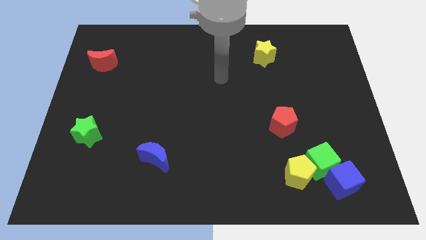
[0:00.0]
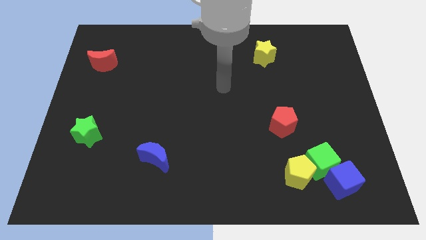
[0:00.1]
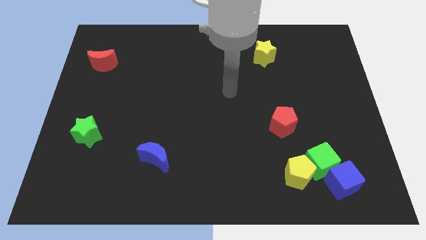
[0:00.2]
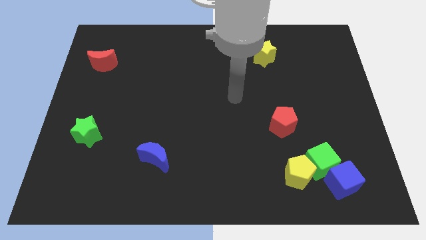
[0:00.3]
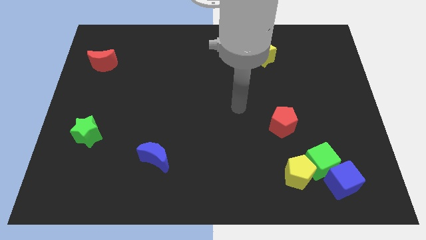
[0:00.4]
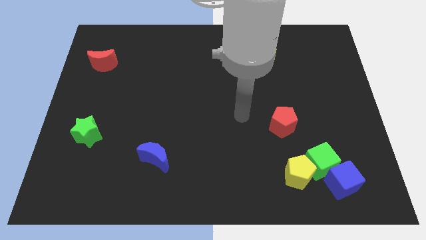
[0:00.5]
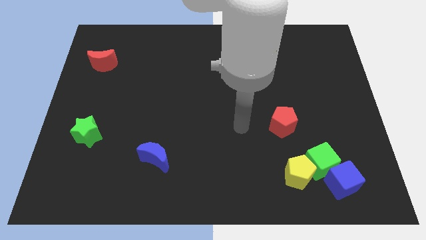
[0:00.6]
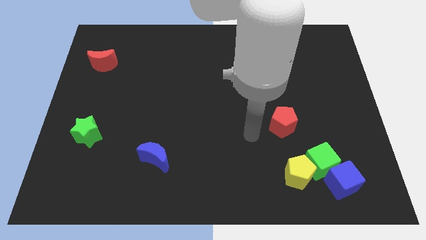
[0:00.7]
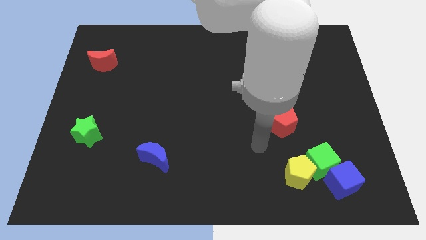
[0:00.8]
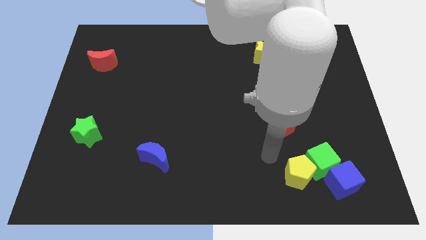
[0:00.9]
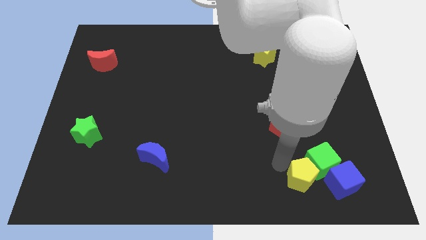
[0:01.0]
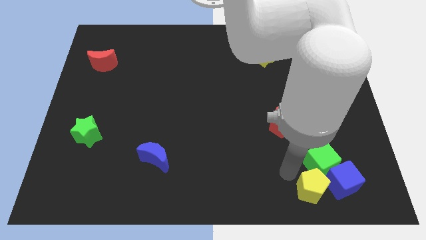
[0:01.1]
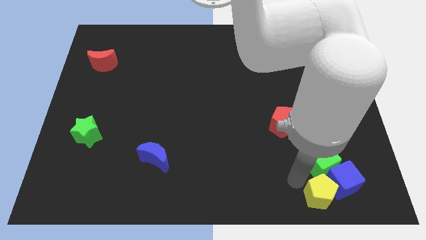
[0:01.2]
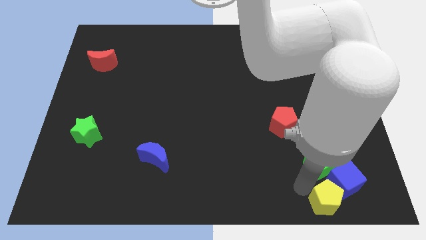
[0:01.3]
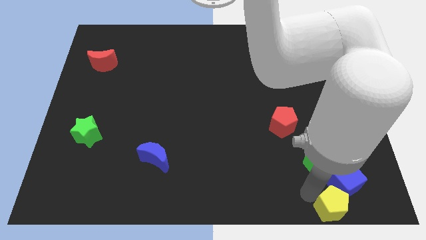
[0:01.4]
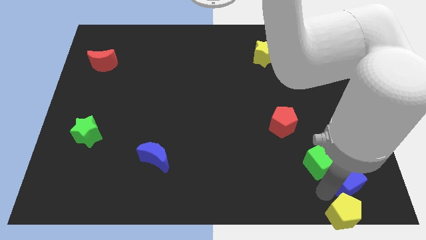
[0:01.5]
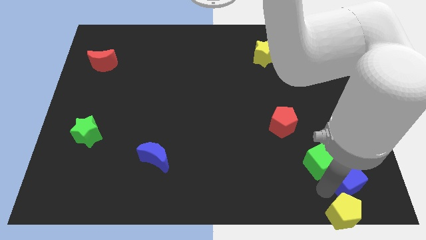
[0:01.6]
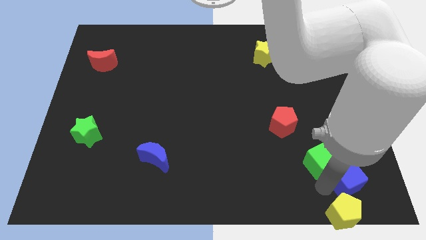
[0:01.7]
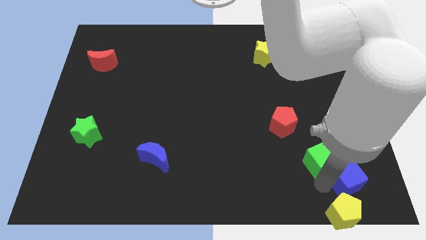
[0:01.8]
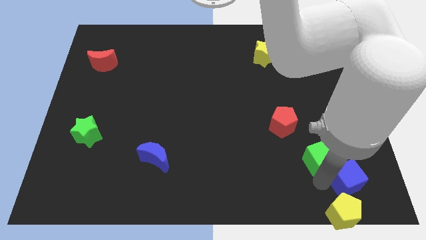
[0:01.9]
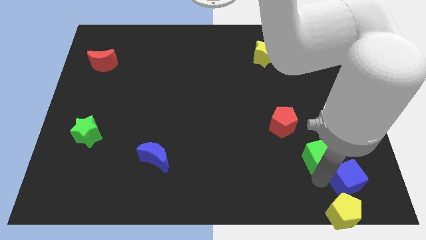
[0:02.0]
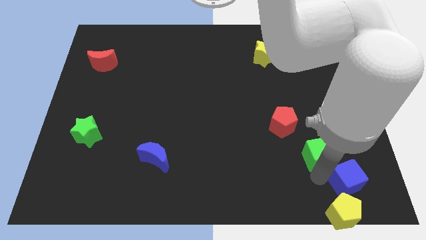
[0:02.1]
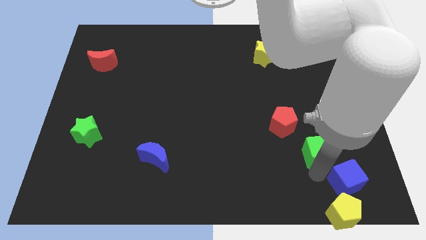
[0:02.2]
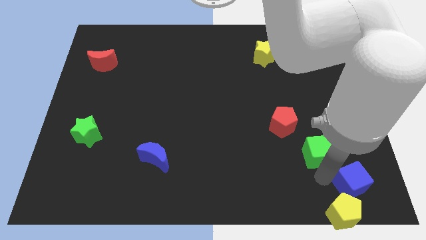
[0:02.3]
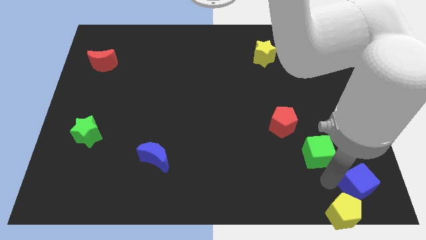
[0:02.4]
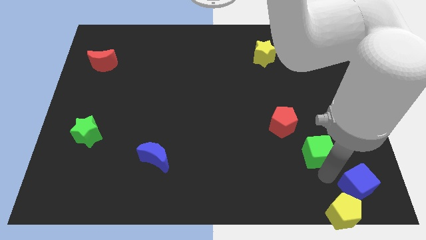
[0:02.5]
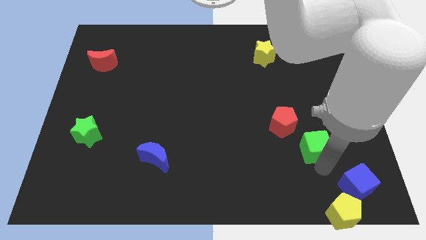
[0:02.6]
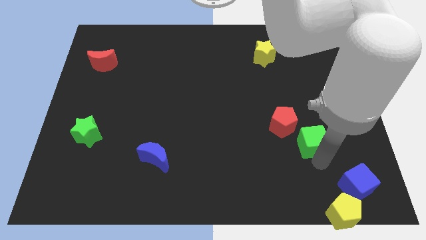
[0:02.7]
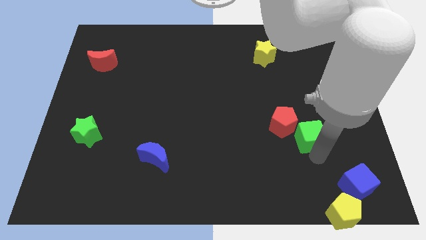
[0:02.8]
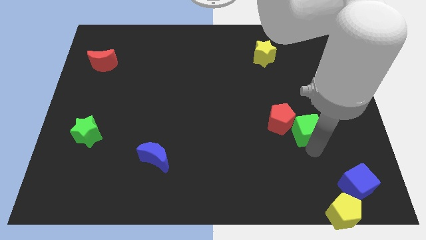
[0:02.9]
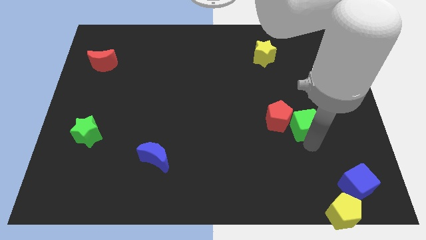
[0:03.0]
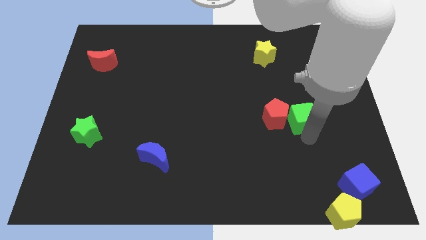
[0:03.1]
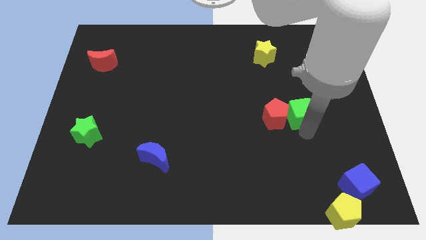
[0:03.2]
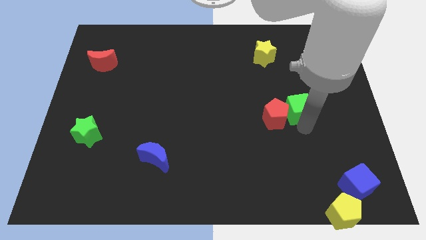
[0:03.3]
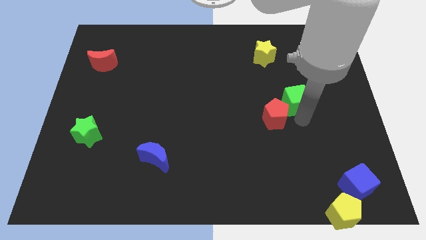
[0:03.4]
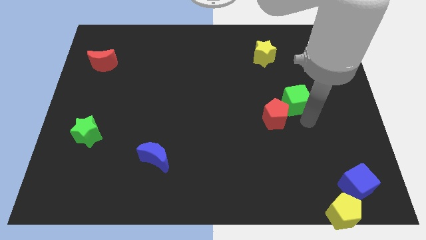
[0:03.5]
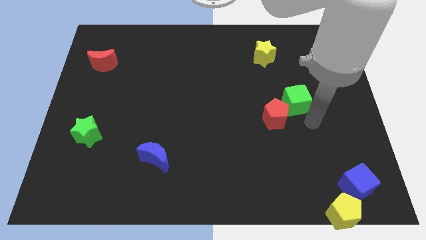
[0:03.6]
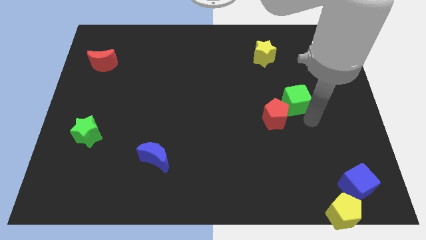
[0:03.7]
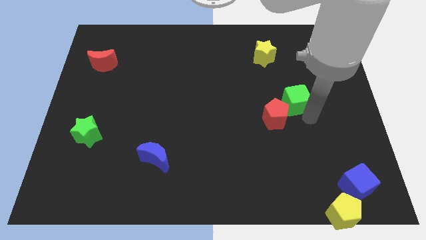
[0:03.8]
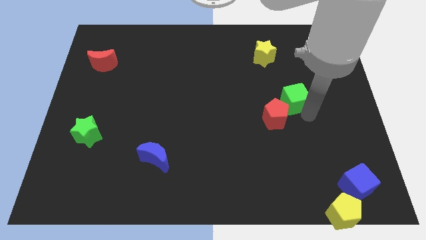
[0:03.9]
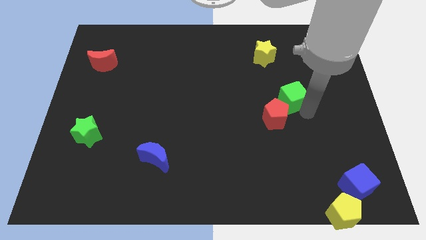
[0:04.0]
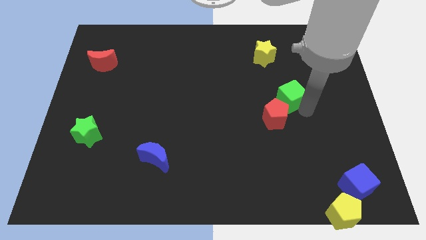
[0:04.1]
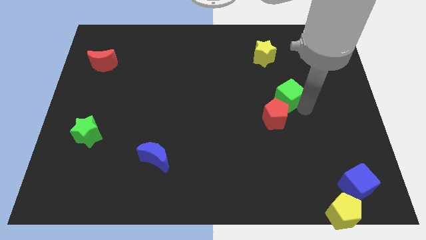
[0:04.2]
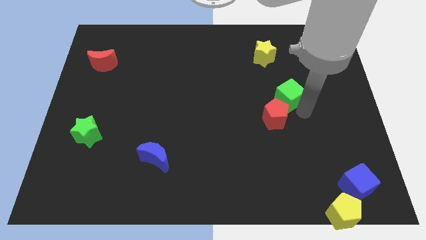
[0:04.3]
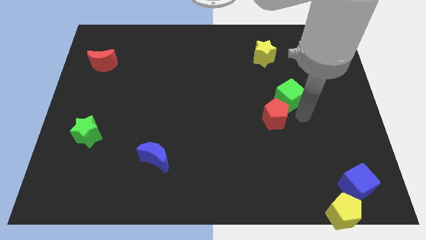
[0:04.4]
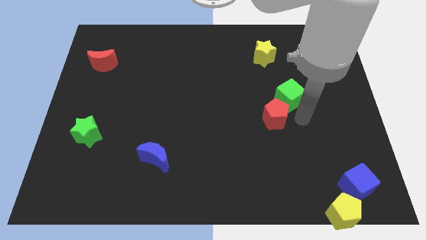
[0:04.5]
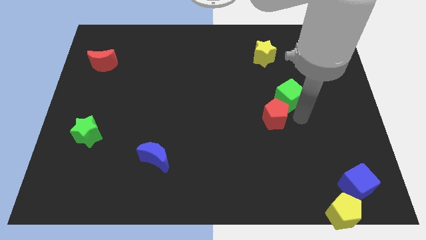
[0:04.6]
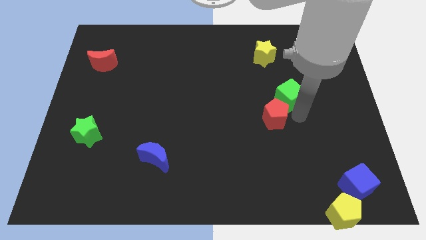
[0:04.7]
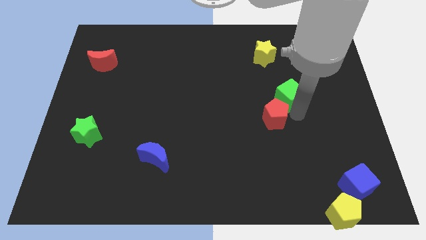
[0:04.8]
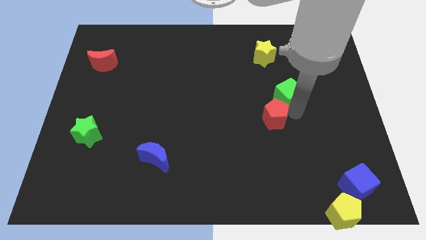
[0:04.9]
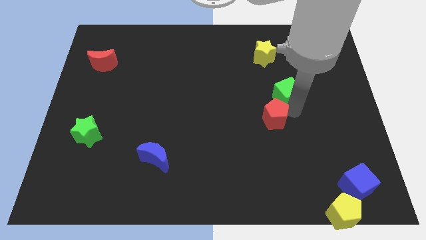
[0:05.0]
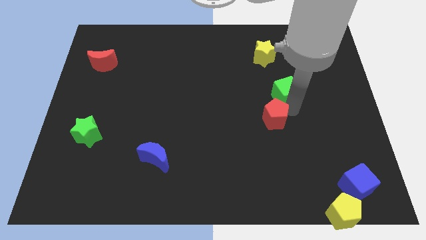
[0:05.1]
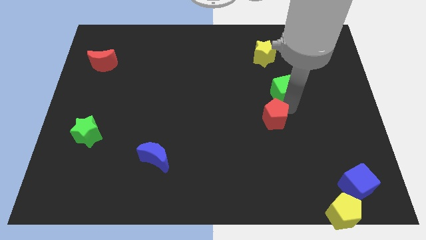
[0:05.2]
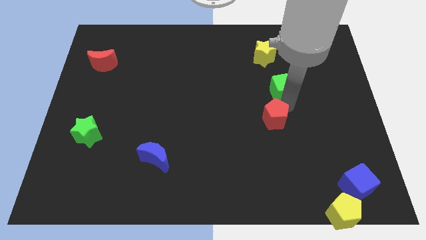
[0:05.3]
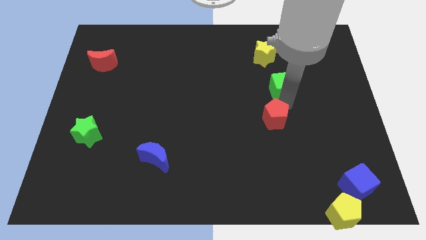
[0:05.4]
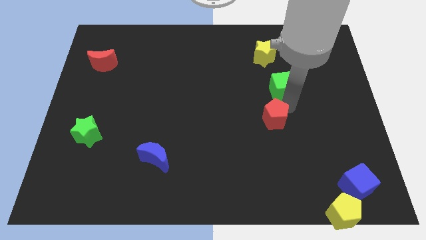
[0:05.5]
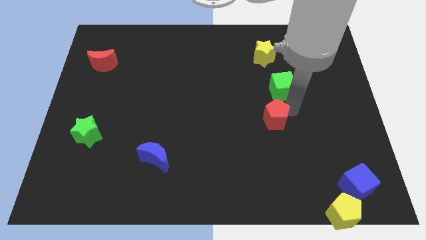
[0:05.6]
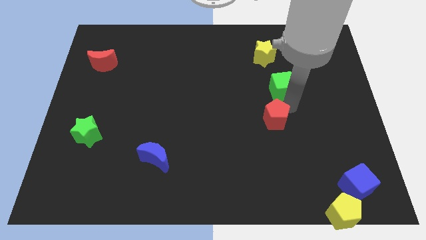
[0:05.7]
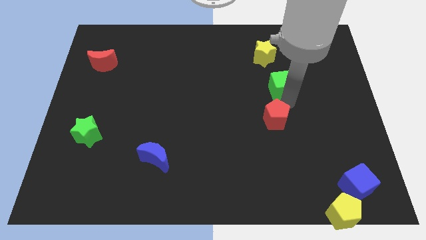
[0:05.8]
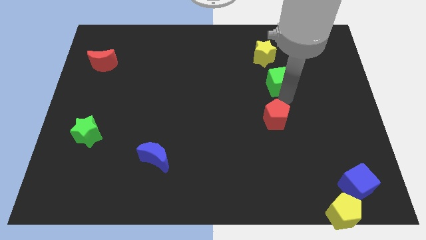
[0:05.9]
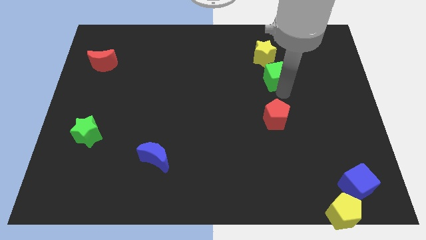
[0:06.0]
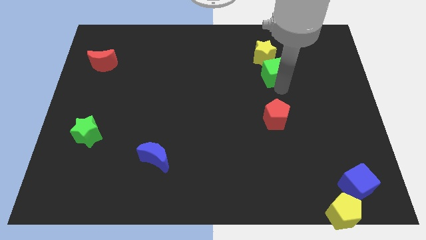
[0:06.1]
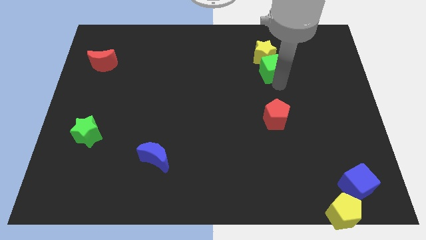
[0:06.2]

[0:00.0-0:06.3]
move the green cube next to the yellow star
